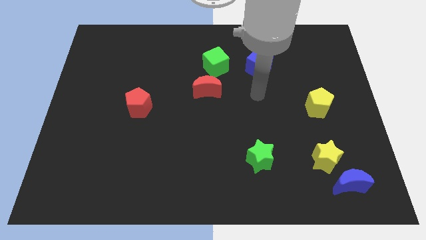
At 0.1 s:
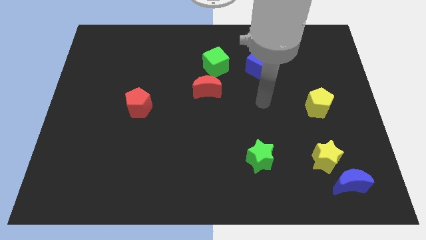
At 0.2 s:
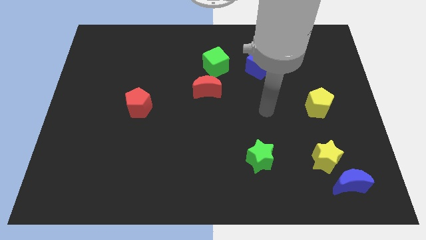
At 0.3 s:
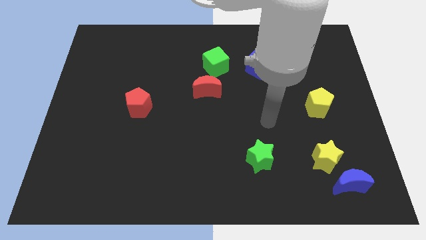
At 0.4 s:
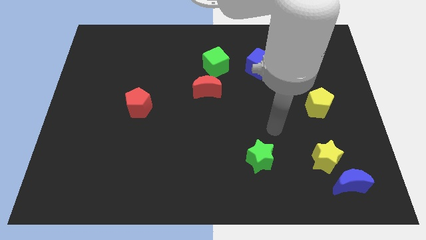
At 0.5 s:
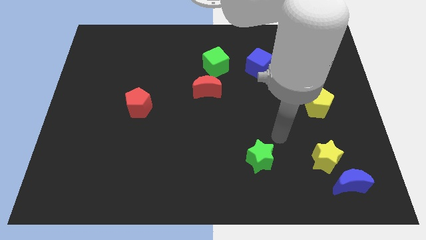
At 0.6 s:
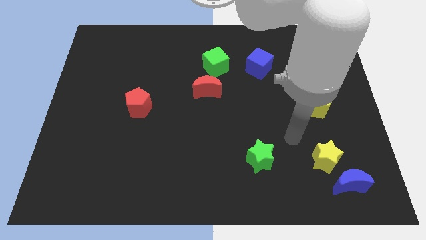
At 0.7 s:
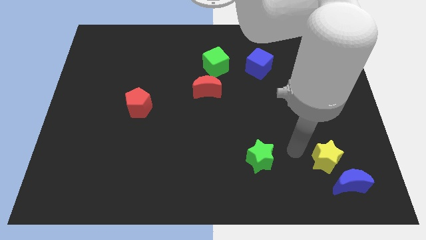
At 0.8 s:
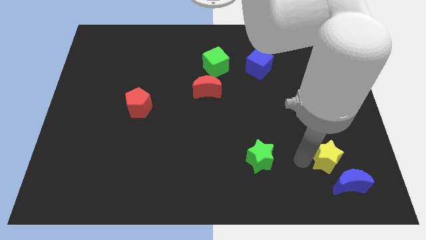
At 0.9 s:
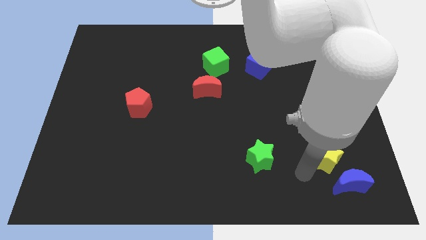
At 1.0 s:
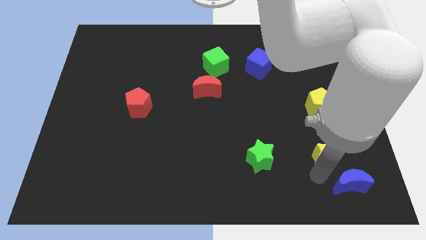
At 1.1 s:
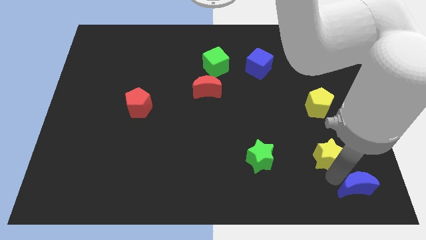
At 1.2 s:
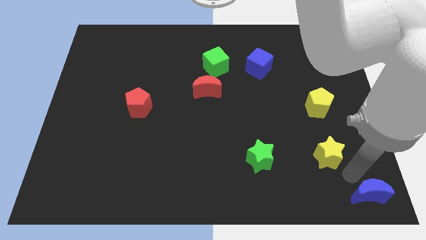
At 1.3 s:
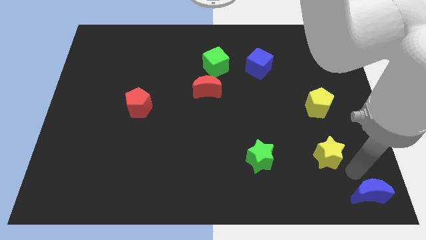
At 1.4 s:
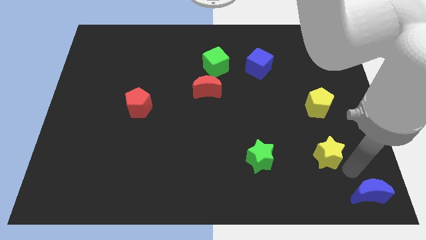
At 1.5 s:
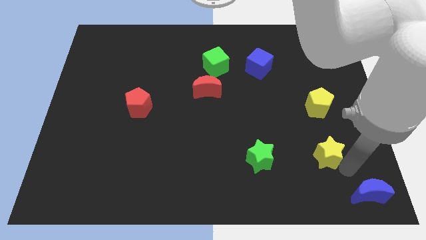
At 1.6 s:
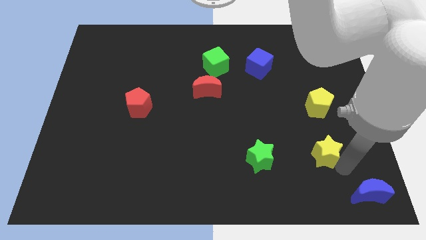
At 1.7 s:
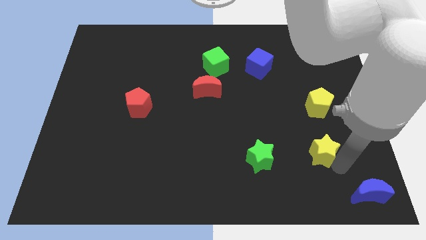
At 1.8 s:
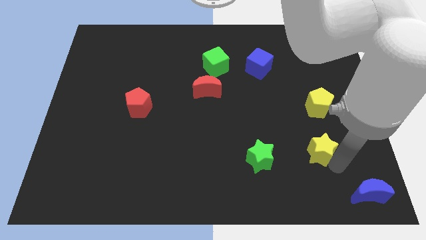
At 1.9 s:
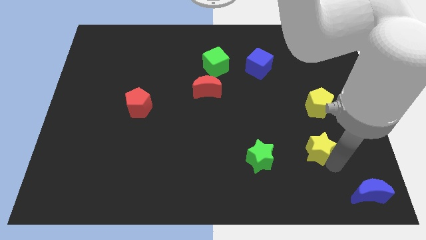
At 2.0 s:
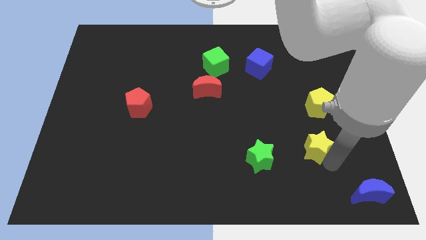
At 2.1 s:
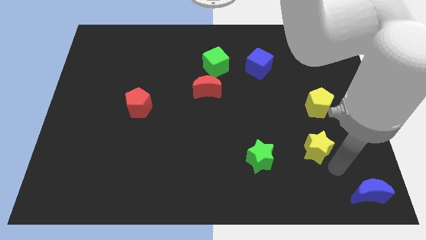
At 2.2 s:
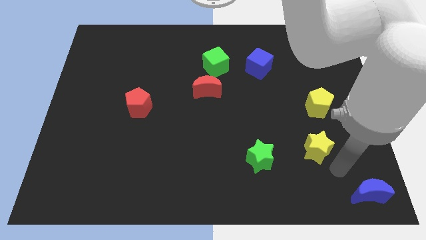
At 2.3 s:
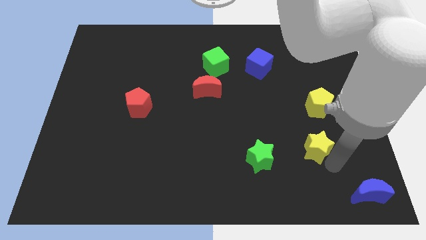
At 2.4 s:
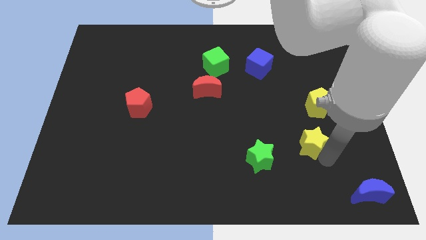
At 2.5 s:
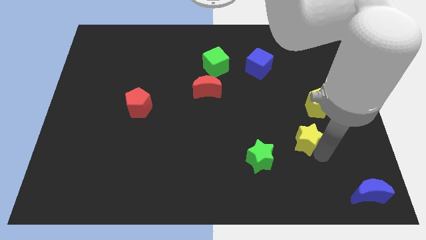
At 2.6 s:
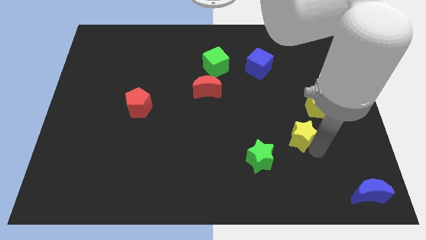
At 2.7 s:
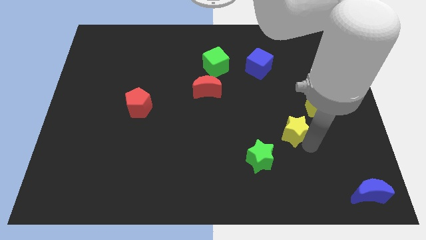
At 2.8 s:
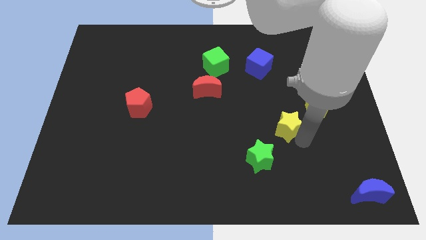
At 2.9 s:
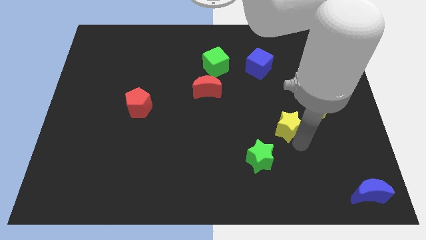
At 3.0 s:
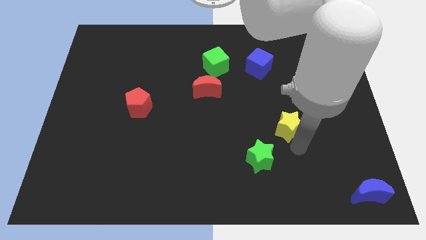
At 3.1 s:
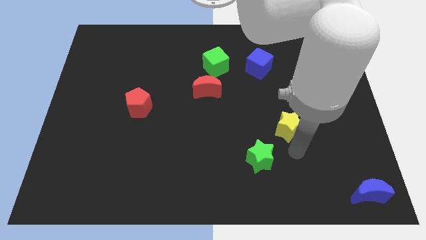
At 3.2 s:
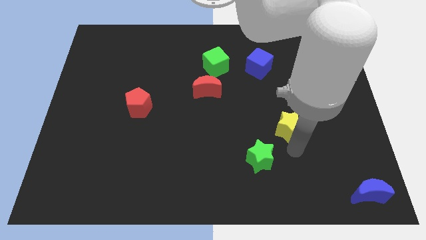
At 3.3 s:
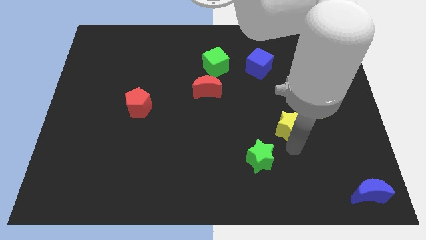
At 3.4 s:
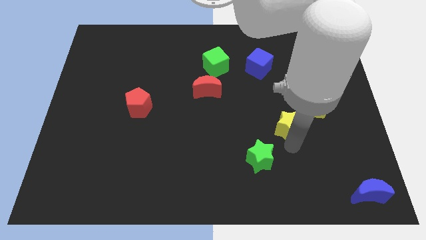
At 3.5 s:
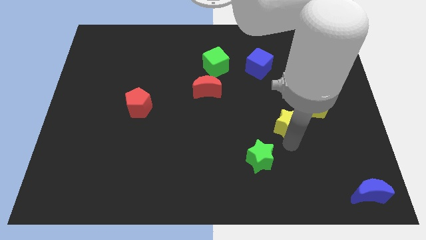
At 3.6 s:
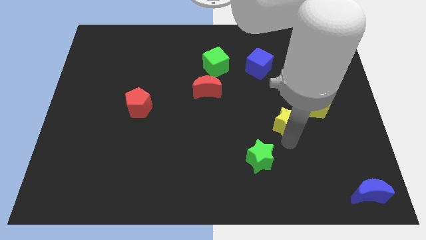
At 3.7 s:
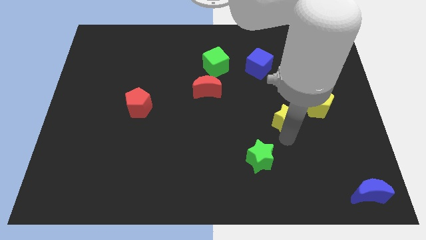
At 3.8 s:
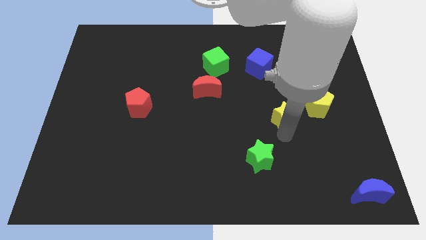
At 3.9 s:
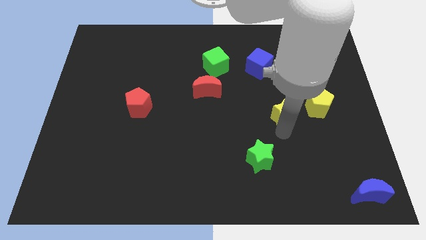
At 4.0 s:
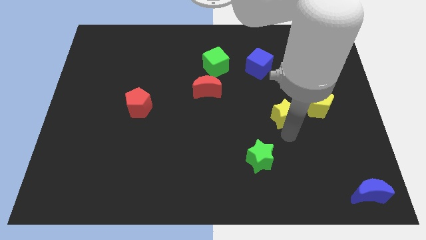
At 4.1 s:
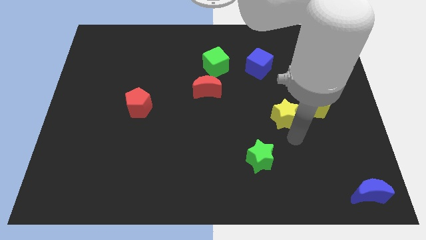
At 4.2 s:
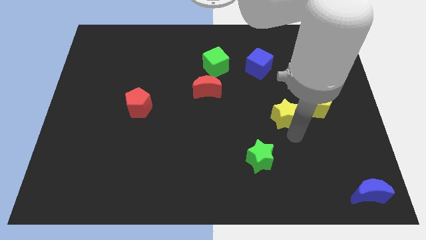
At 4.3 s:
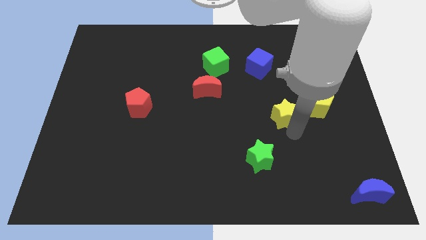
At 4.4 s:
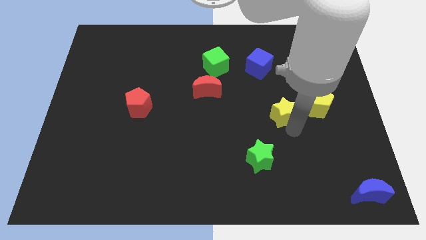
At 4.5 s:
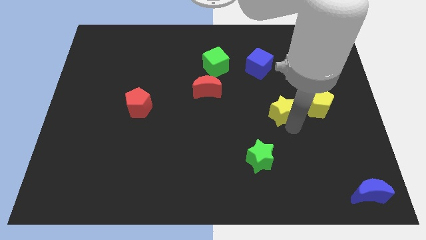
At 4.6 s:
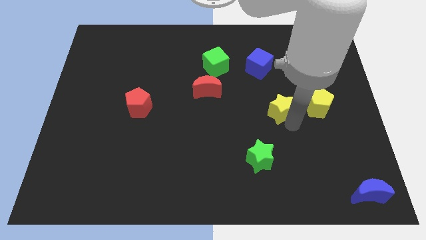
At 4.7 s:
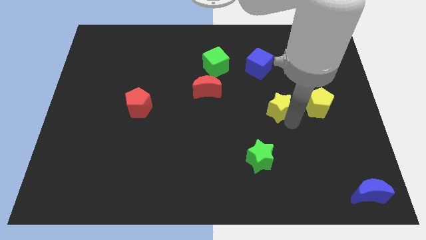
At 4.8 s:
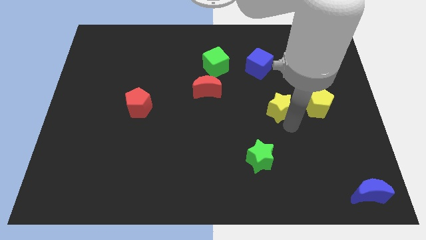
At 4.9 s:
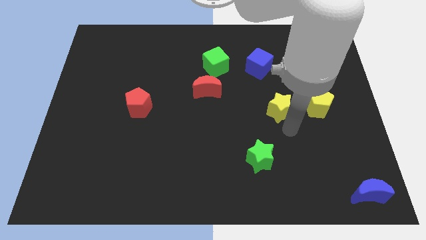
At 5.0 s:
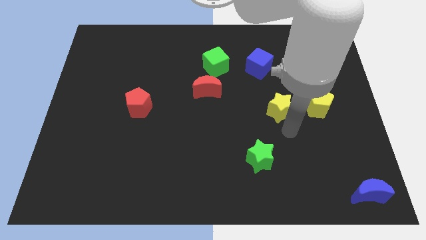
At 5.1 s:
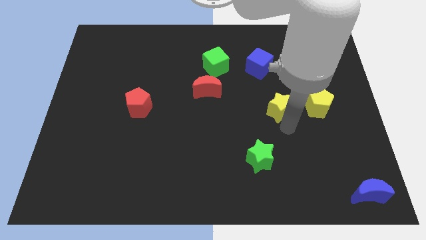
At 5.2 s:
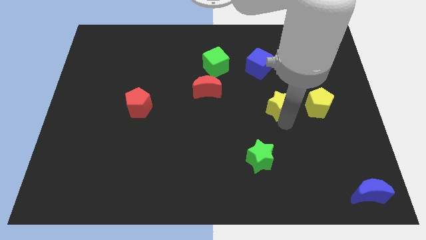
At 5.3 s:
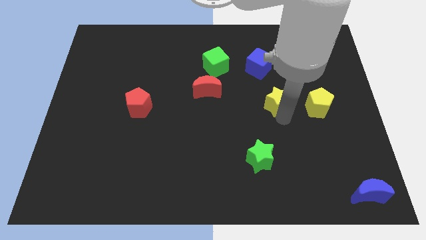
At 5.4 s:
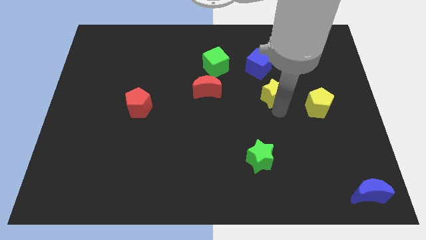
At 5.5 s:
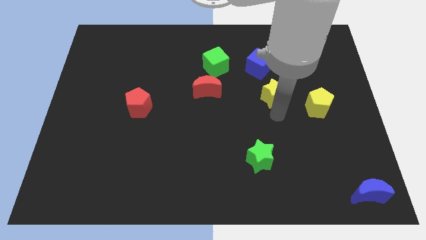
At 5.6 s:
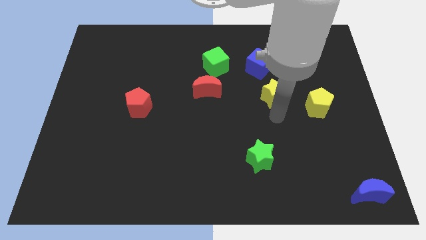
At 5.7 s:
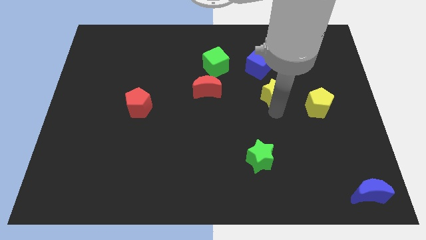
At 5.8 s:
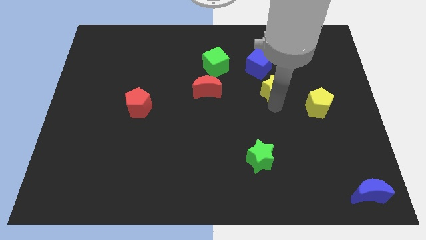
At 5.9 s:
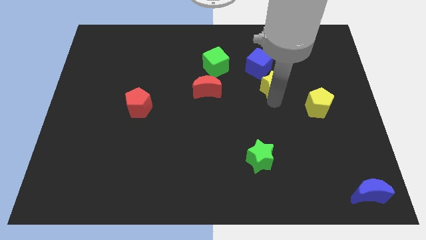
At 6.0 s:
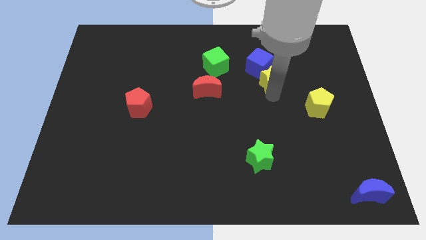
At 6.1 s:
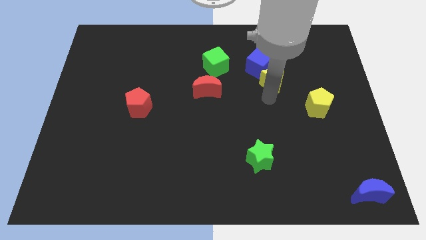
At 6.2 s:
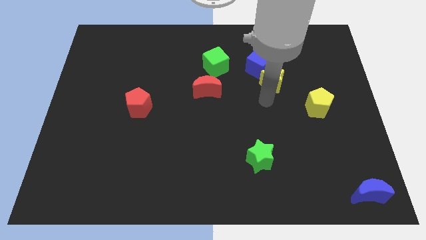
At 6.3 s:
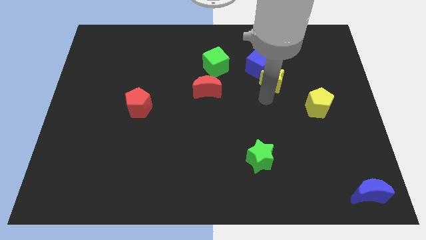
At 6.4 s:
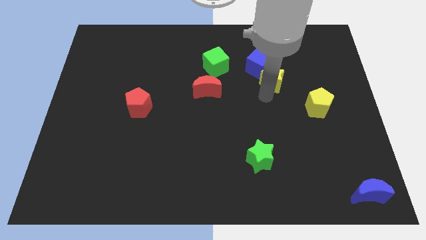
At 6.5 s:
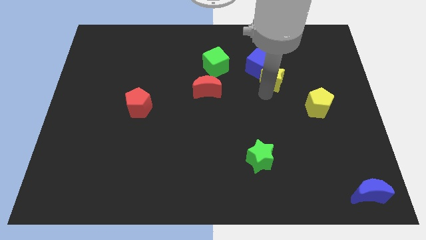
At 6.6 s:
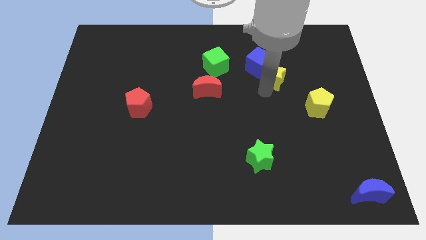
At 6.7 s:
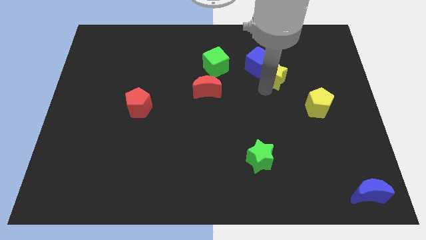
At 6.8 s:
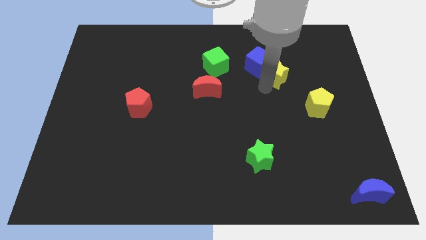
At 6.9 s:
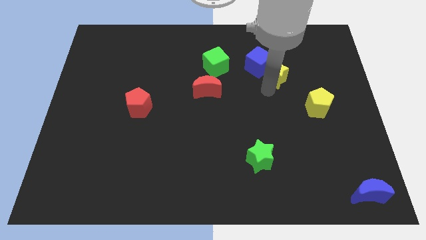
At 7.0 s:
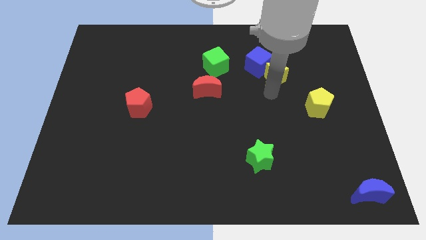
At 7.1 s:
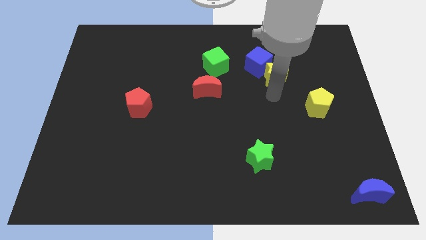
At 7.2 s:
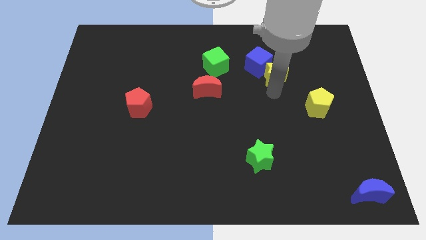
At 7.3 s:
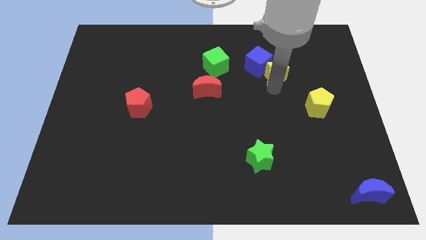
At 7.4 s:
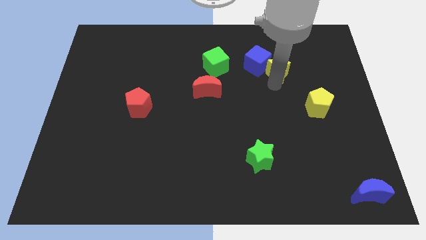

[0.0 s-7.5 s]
push the yellow star just right of the green cube
